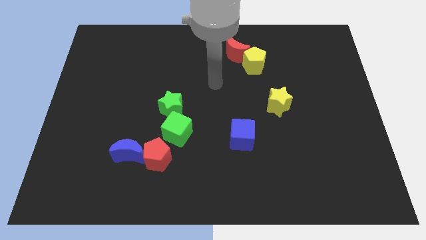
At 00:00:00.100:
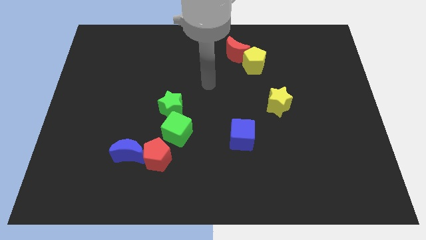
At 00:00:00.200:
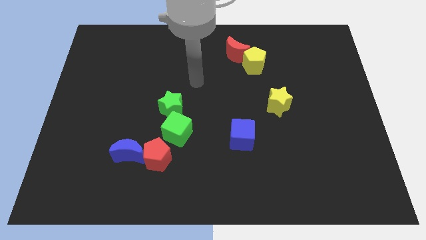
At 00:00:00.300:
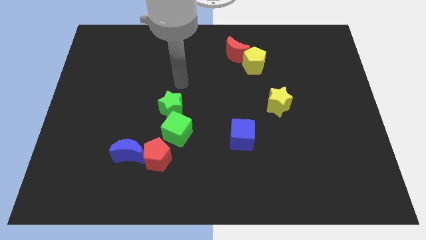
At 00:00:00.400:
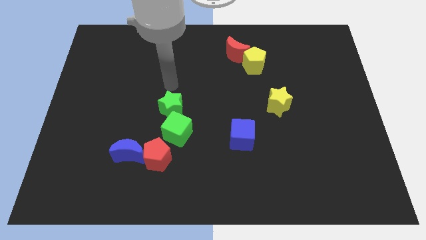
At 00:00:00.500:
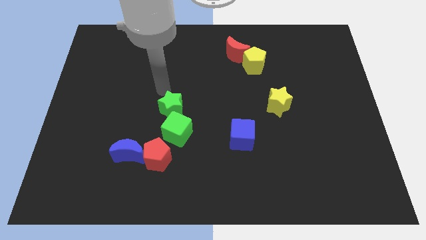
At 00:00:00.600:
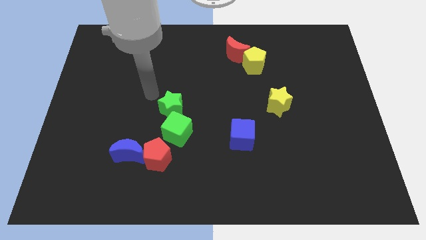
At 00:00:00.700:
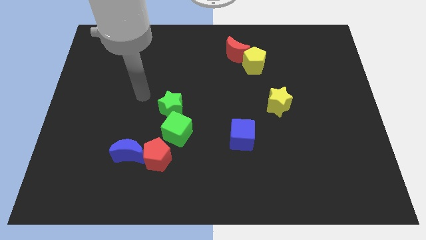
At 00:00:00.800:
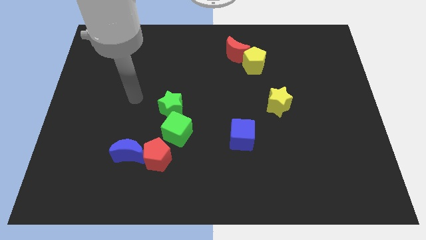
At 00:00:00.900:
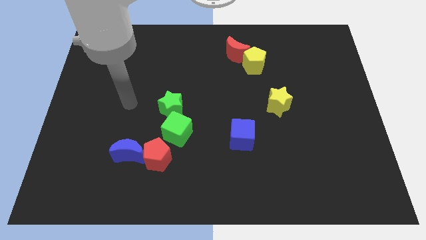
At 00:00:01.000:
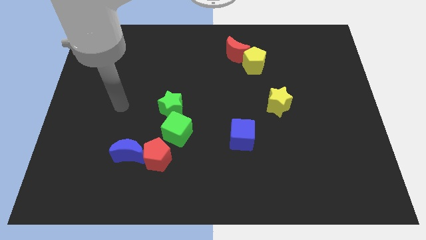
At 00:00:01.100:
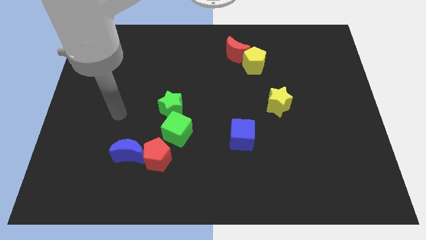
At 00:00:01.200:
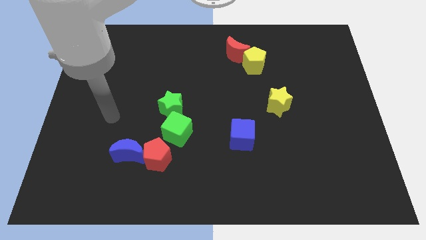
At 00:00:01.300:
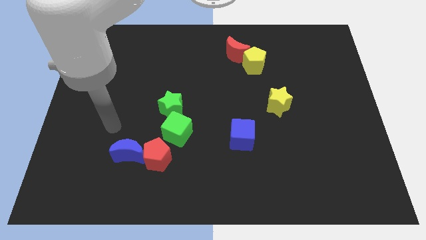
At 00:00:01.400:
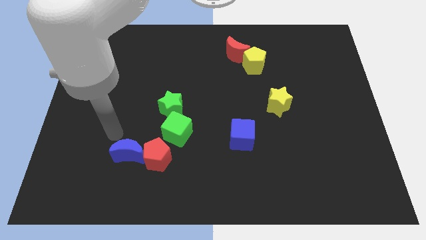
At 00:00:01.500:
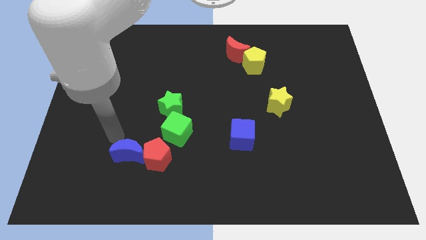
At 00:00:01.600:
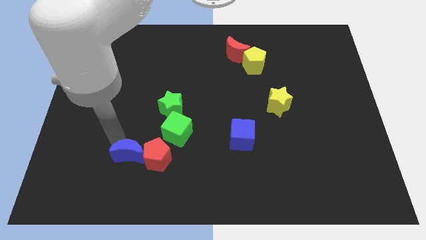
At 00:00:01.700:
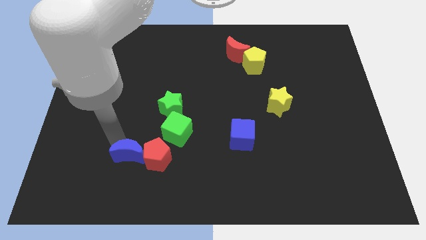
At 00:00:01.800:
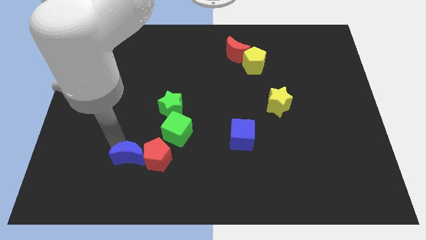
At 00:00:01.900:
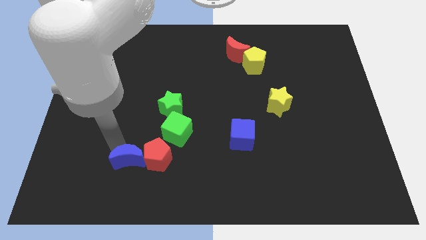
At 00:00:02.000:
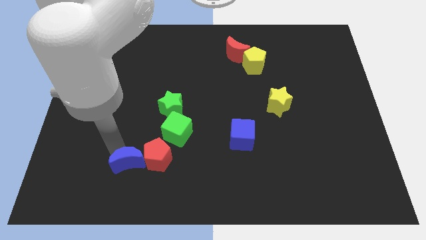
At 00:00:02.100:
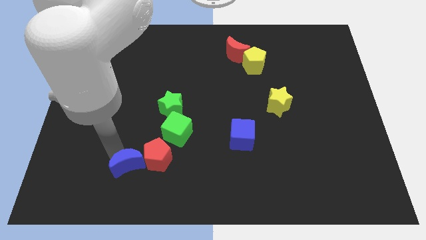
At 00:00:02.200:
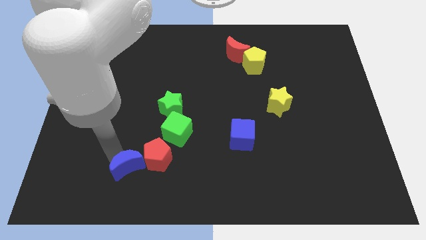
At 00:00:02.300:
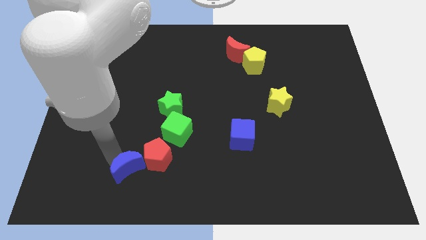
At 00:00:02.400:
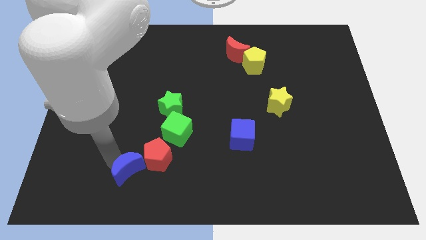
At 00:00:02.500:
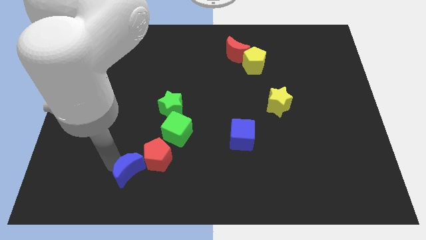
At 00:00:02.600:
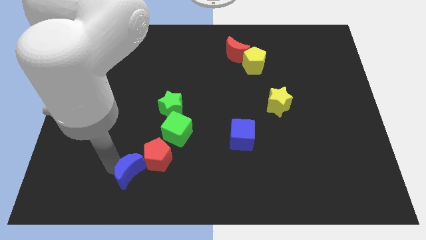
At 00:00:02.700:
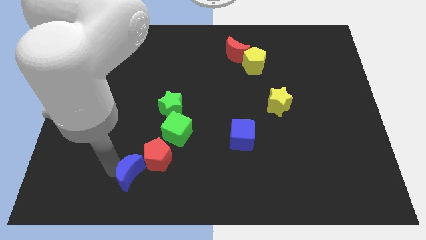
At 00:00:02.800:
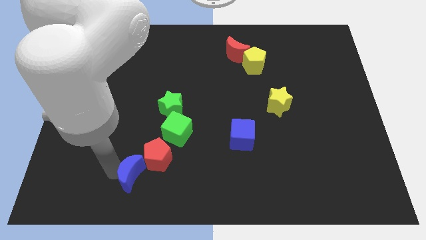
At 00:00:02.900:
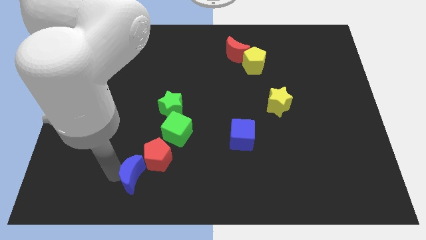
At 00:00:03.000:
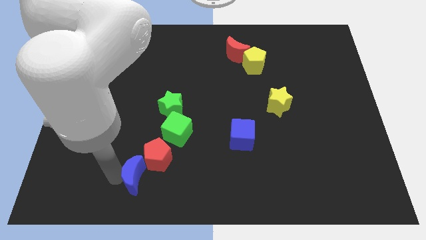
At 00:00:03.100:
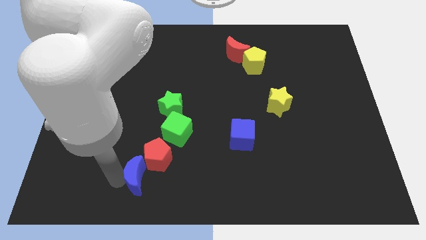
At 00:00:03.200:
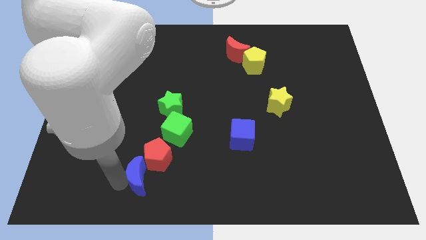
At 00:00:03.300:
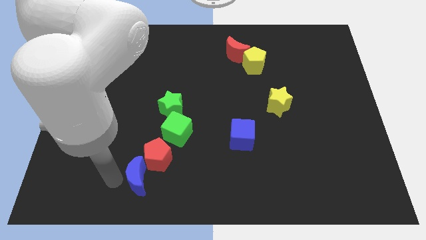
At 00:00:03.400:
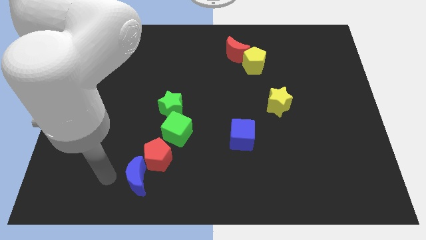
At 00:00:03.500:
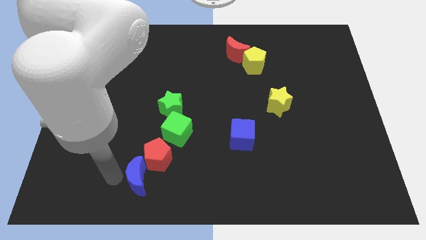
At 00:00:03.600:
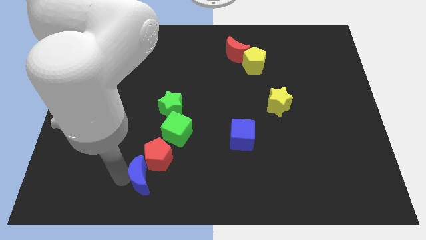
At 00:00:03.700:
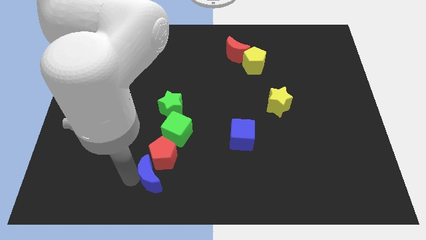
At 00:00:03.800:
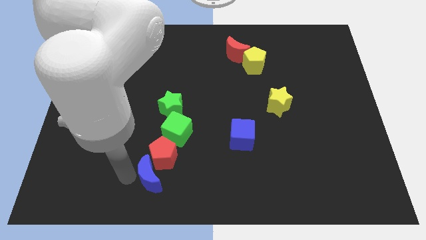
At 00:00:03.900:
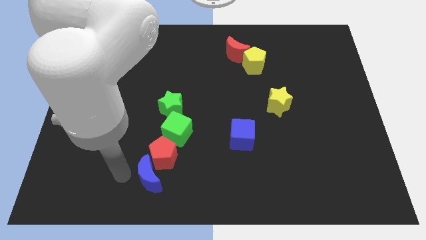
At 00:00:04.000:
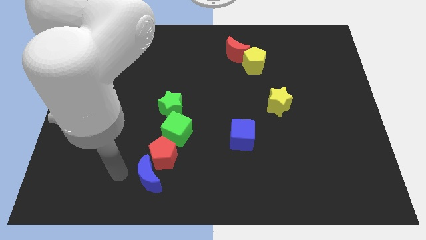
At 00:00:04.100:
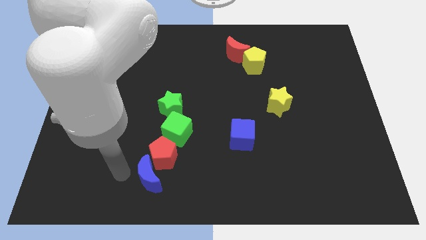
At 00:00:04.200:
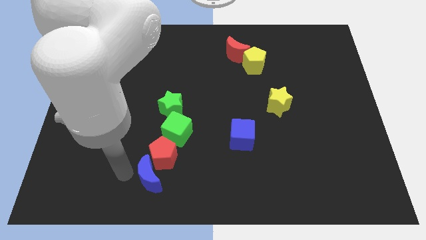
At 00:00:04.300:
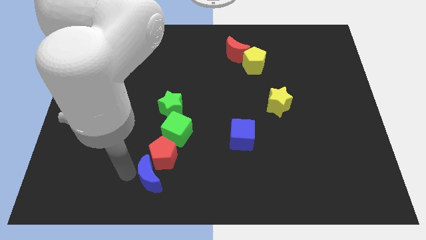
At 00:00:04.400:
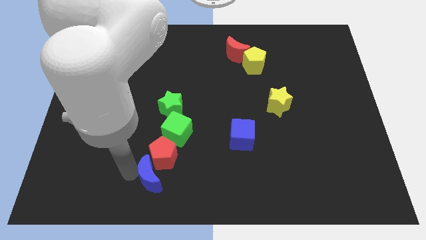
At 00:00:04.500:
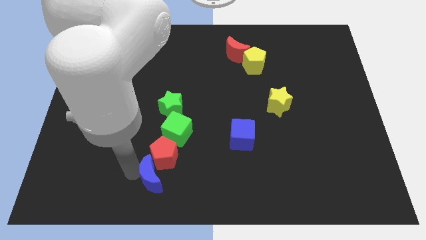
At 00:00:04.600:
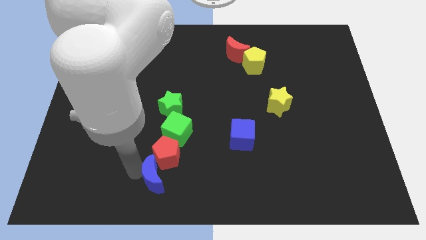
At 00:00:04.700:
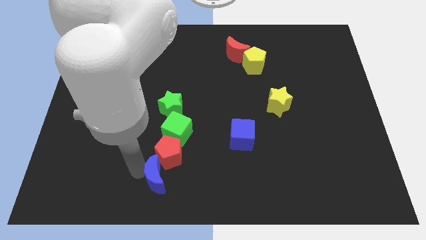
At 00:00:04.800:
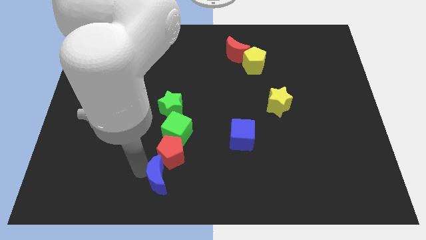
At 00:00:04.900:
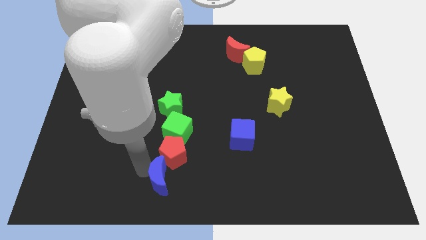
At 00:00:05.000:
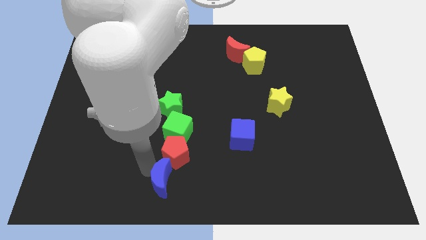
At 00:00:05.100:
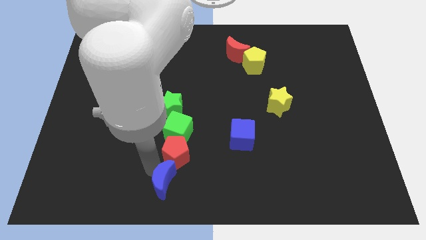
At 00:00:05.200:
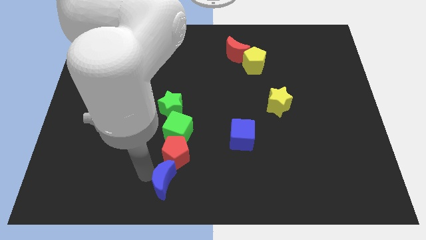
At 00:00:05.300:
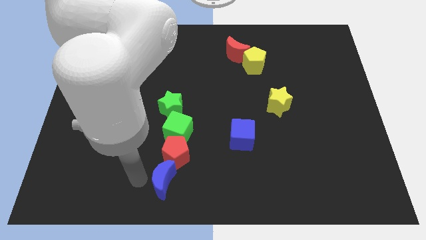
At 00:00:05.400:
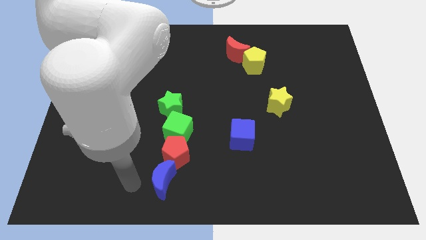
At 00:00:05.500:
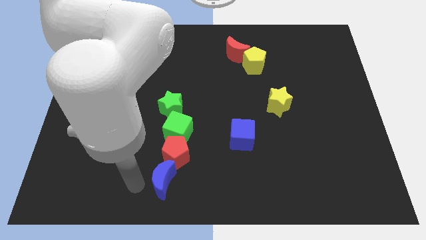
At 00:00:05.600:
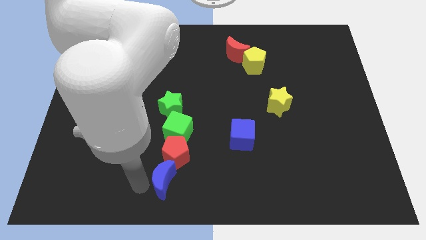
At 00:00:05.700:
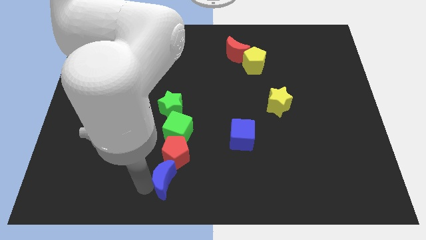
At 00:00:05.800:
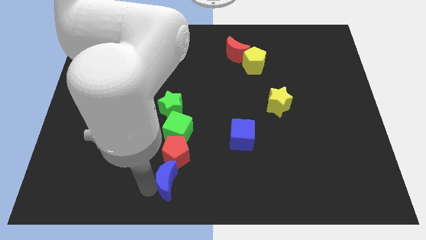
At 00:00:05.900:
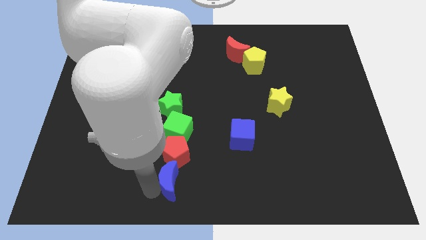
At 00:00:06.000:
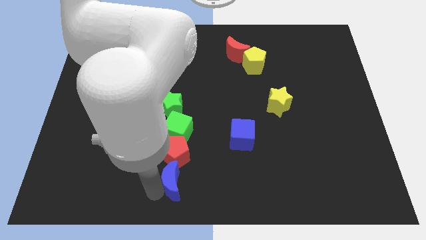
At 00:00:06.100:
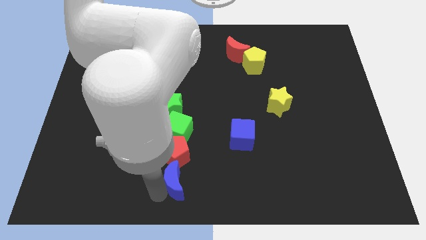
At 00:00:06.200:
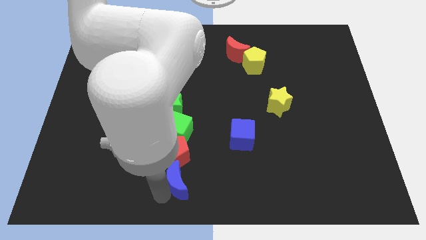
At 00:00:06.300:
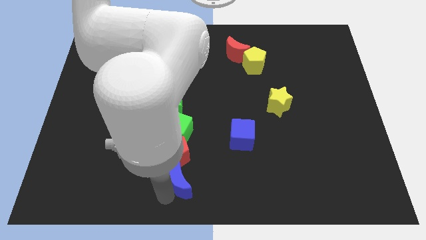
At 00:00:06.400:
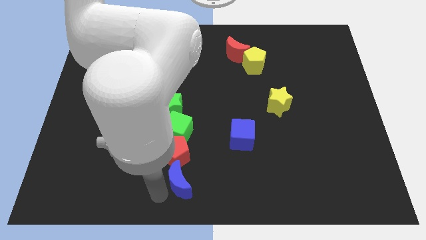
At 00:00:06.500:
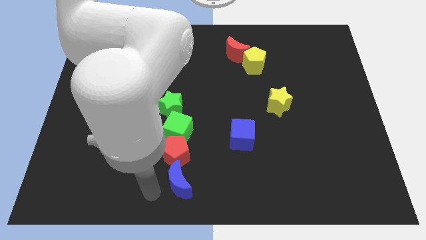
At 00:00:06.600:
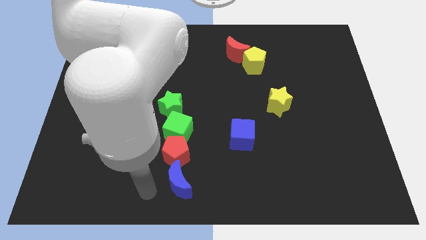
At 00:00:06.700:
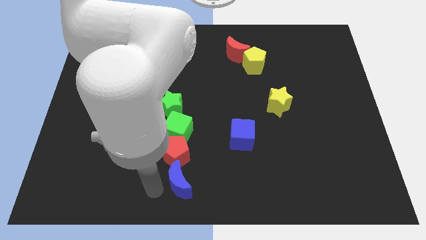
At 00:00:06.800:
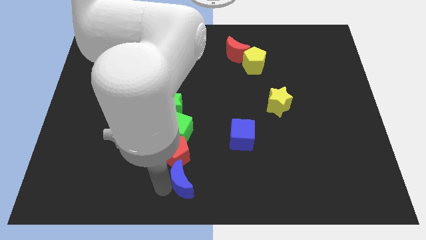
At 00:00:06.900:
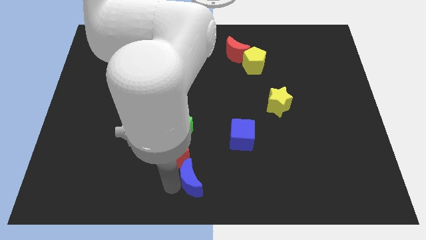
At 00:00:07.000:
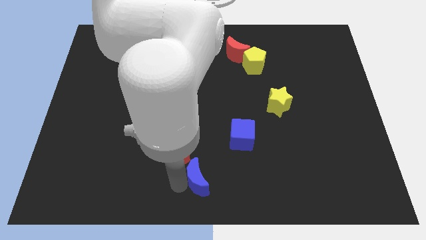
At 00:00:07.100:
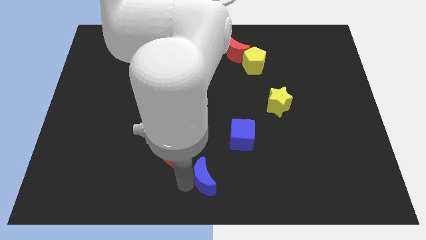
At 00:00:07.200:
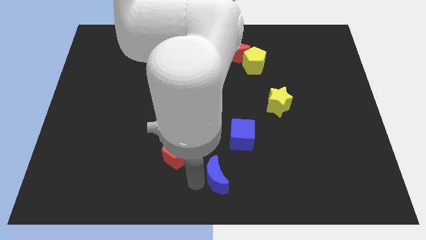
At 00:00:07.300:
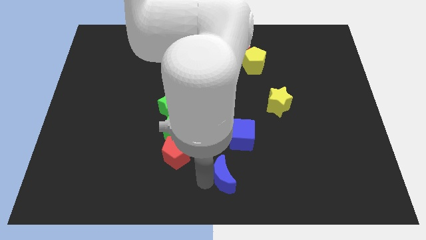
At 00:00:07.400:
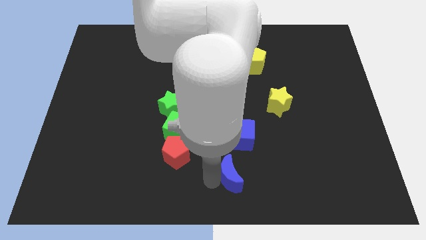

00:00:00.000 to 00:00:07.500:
slide the blue moon to the right

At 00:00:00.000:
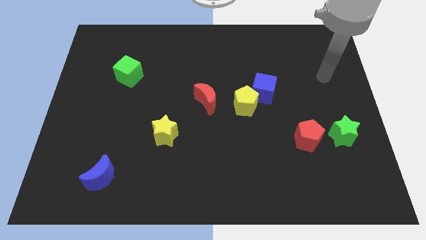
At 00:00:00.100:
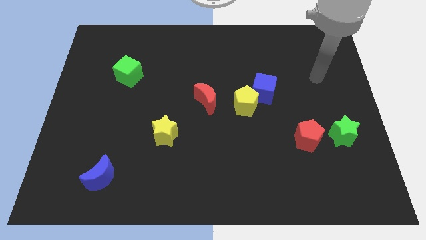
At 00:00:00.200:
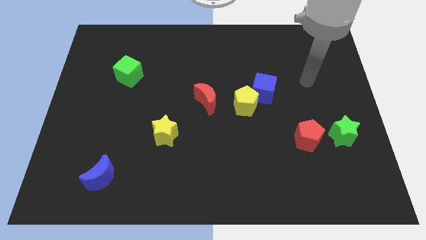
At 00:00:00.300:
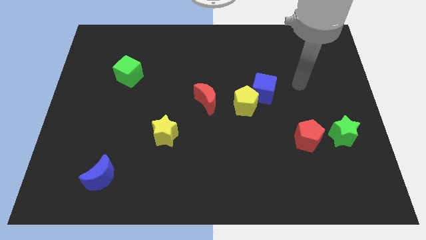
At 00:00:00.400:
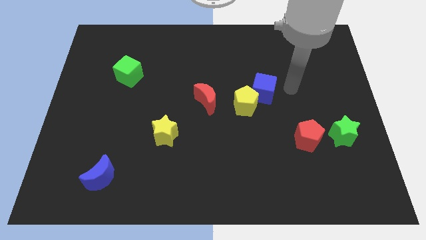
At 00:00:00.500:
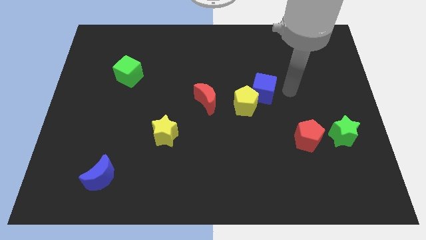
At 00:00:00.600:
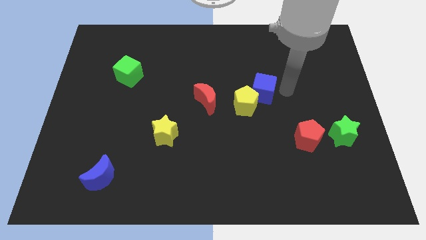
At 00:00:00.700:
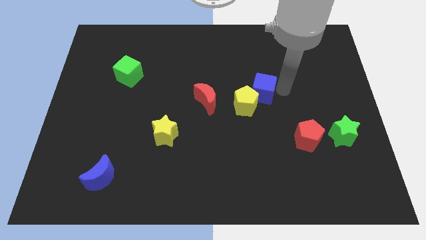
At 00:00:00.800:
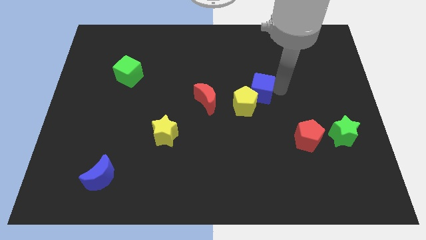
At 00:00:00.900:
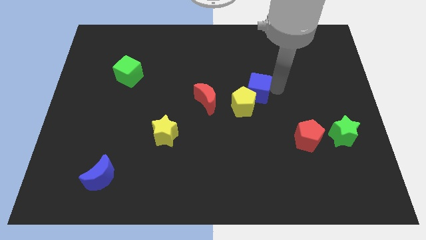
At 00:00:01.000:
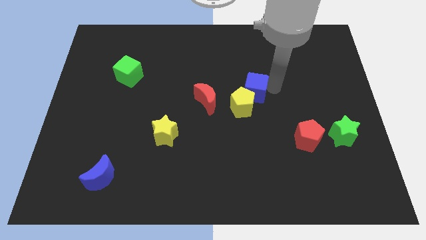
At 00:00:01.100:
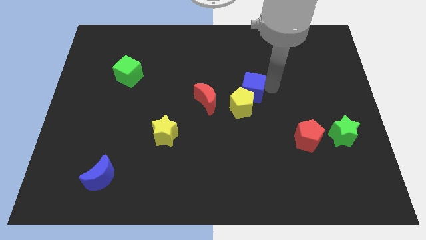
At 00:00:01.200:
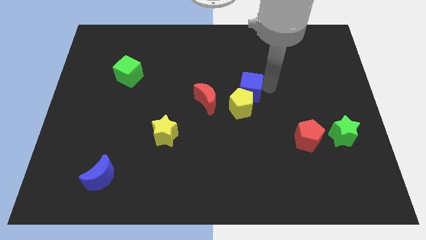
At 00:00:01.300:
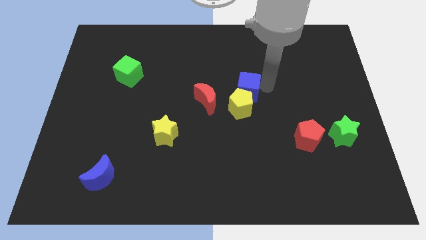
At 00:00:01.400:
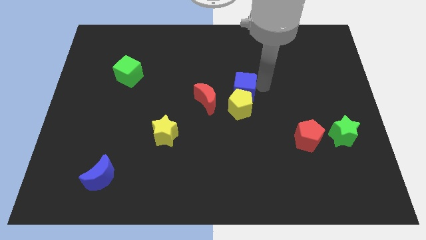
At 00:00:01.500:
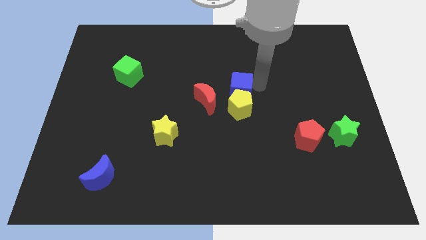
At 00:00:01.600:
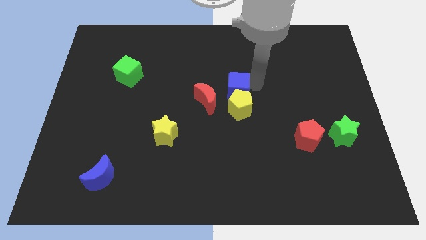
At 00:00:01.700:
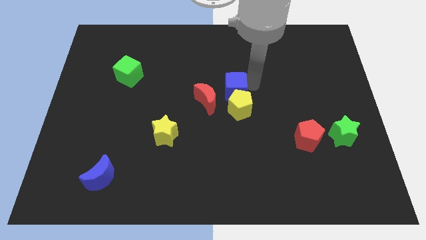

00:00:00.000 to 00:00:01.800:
slide the blue cube somewhat left
